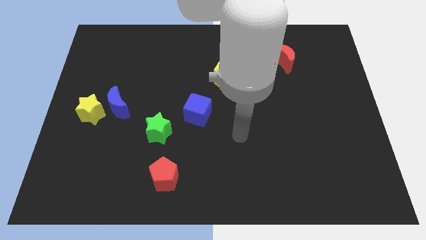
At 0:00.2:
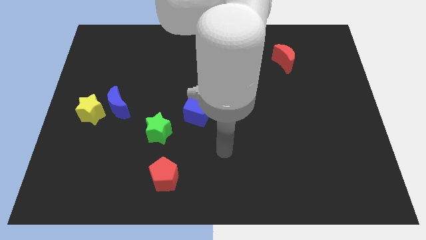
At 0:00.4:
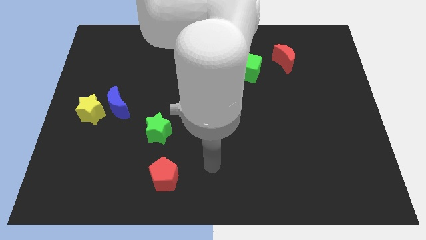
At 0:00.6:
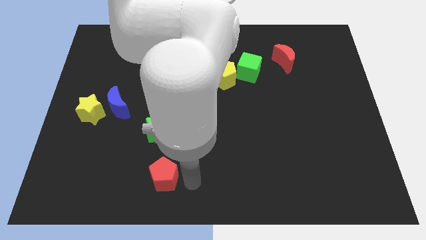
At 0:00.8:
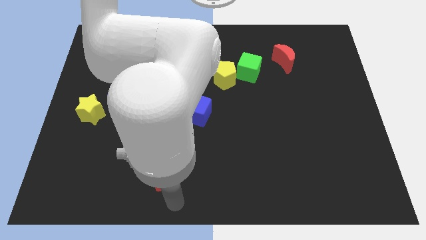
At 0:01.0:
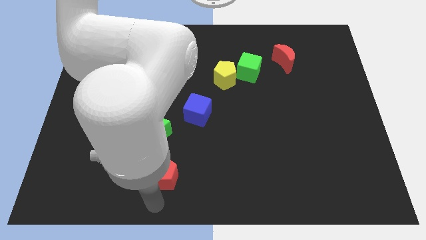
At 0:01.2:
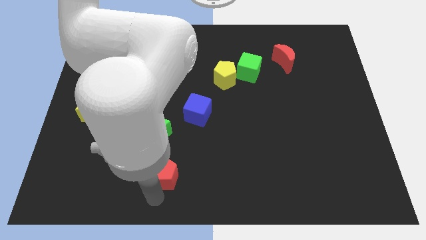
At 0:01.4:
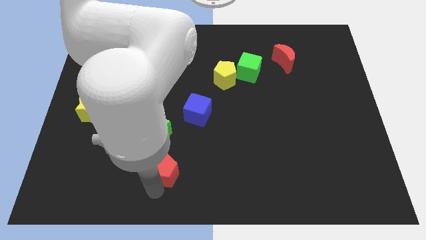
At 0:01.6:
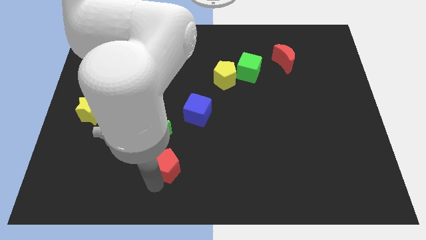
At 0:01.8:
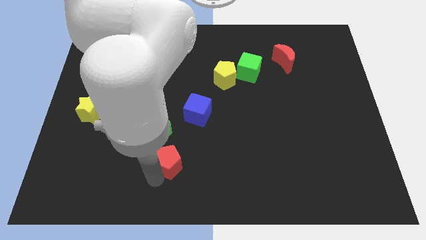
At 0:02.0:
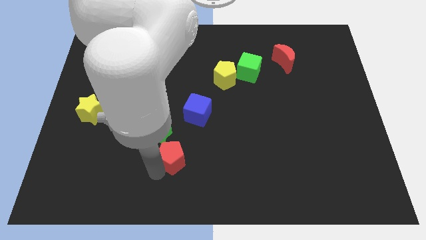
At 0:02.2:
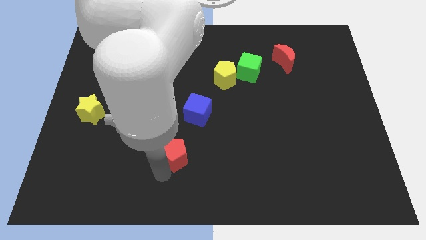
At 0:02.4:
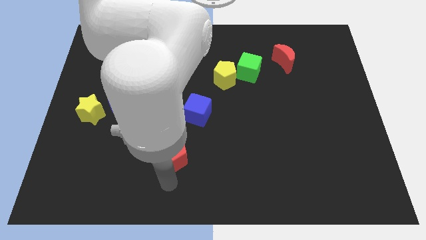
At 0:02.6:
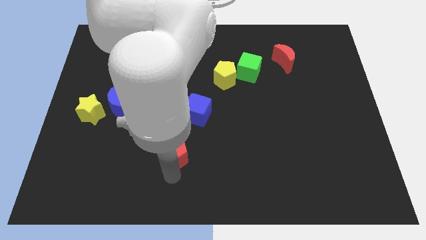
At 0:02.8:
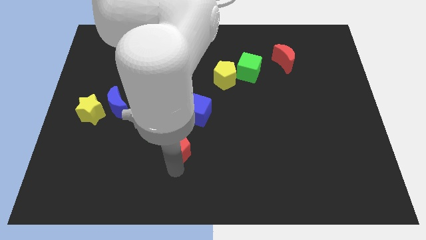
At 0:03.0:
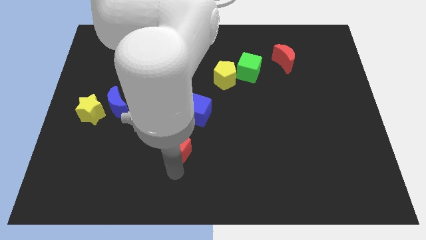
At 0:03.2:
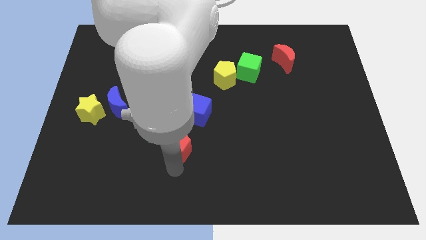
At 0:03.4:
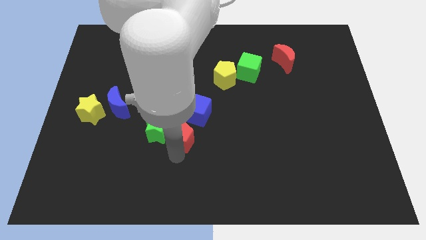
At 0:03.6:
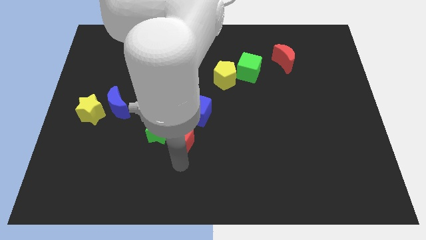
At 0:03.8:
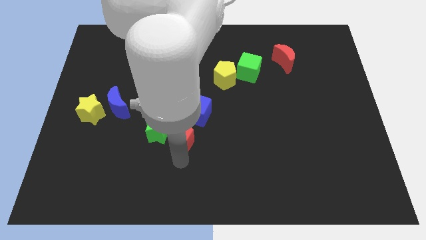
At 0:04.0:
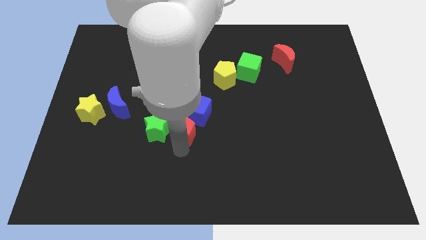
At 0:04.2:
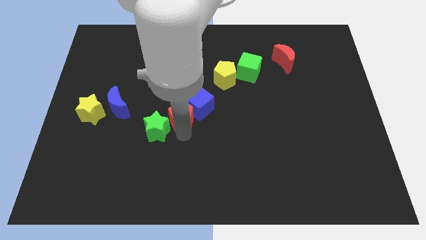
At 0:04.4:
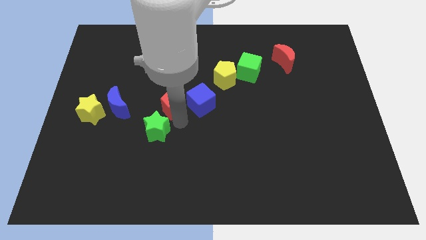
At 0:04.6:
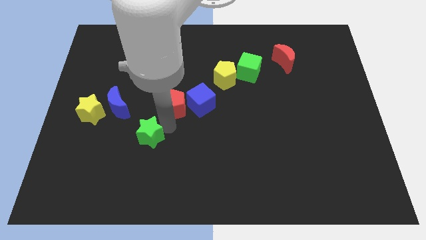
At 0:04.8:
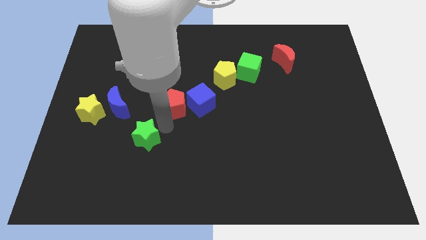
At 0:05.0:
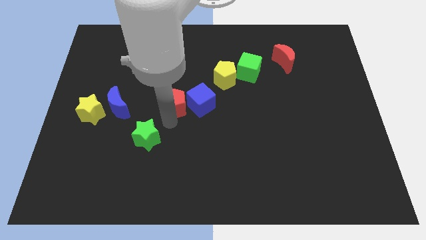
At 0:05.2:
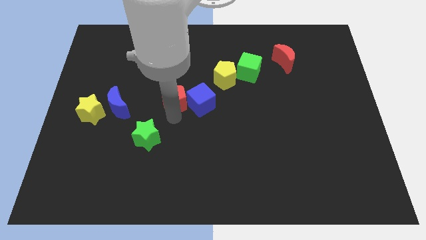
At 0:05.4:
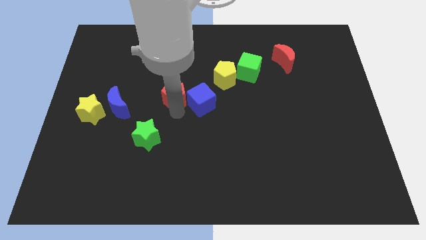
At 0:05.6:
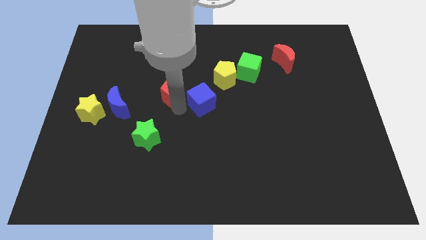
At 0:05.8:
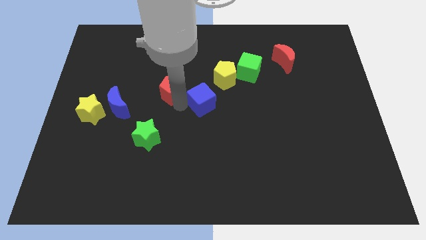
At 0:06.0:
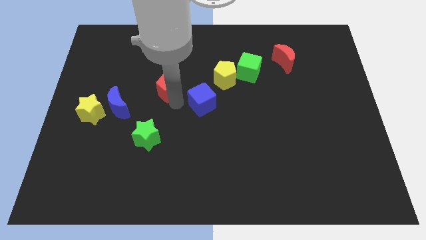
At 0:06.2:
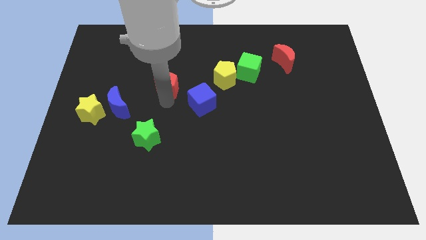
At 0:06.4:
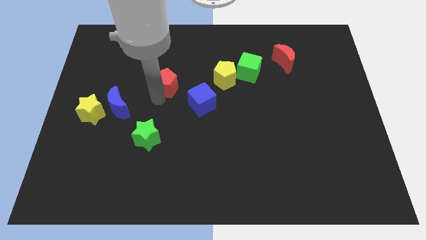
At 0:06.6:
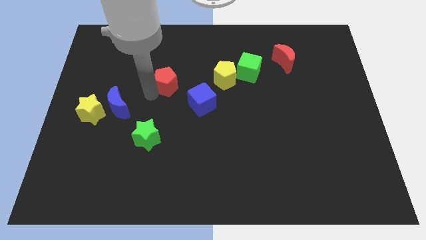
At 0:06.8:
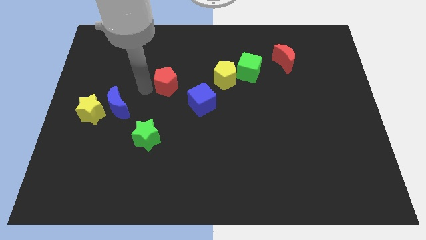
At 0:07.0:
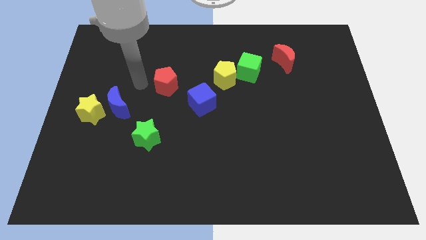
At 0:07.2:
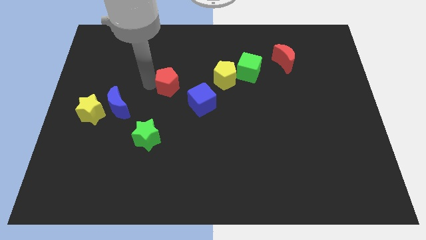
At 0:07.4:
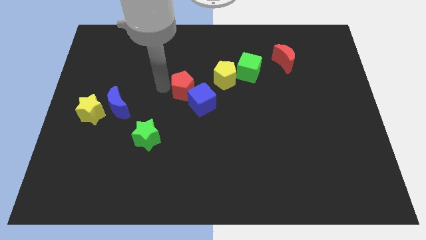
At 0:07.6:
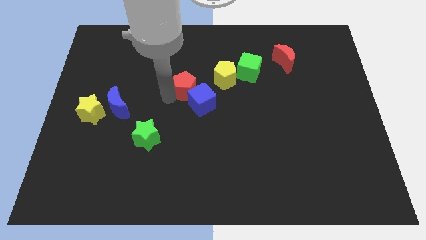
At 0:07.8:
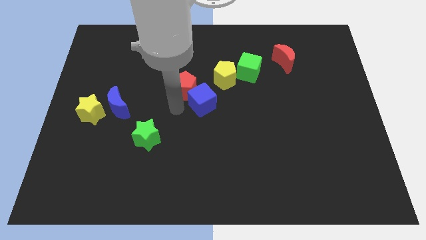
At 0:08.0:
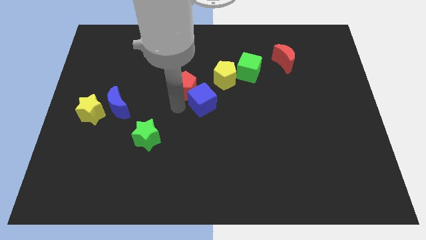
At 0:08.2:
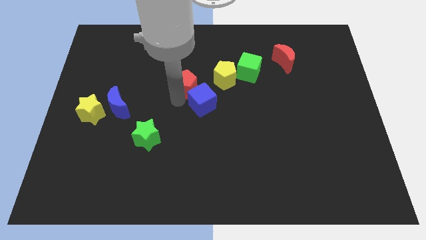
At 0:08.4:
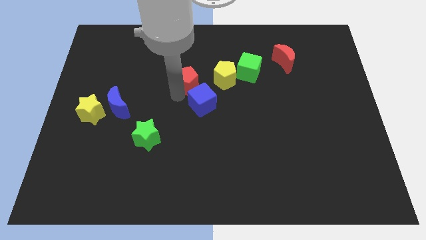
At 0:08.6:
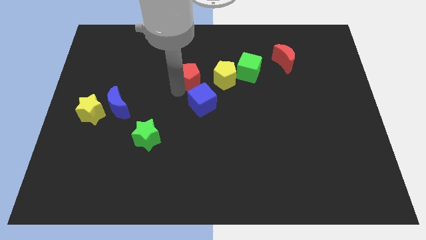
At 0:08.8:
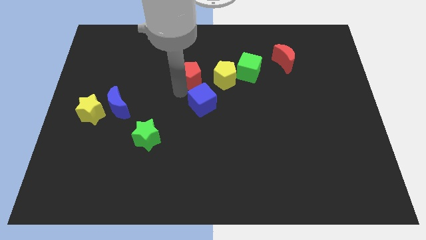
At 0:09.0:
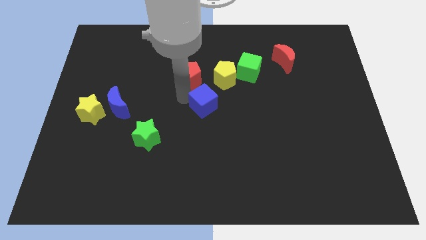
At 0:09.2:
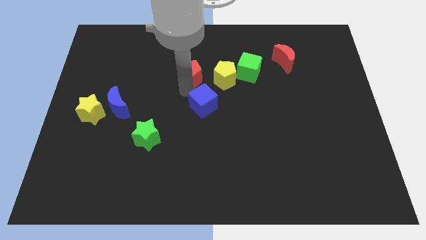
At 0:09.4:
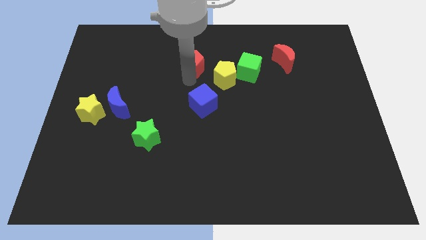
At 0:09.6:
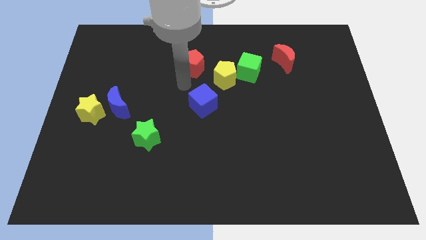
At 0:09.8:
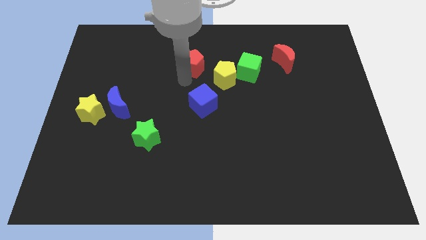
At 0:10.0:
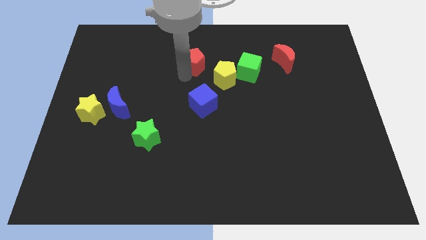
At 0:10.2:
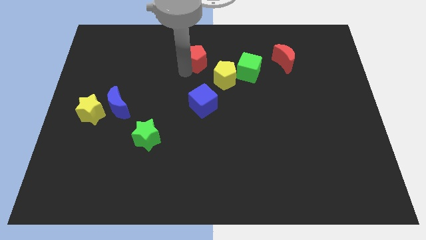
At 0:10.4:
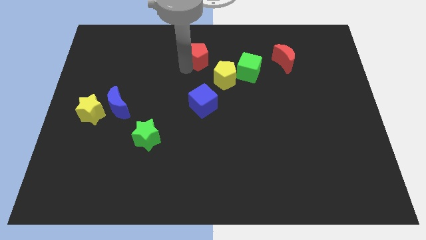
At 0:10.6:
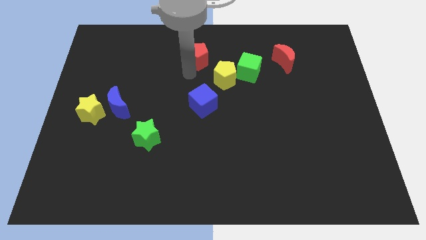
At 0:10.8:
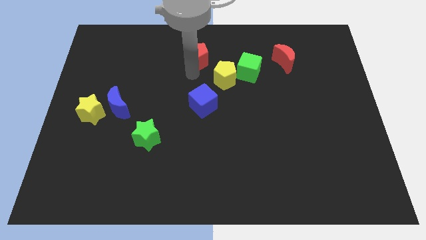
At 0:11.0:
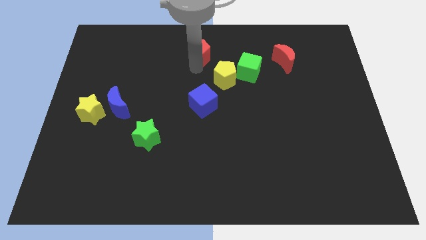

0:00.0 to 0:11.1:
push the red pentagon to the towards your base

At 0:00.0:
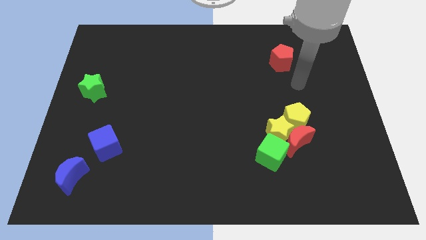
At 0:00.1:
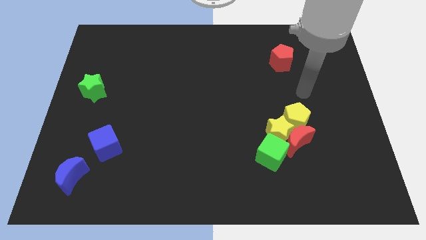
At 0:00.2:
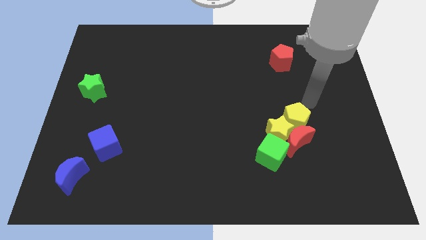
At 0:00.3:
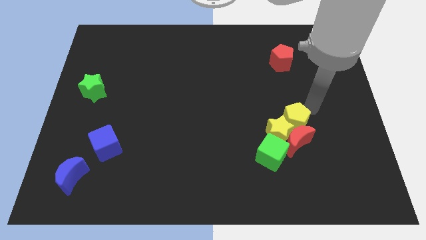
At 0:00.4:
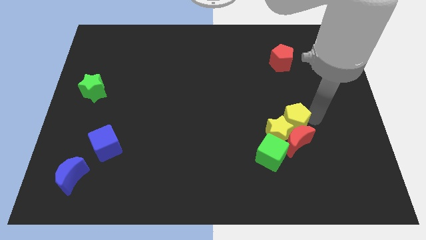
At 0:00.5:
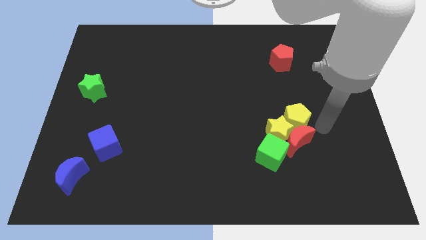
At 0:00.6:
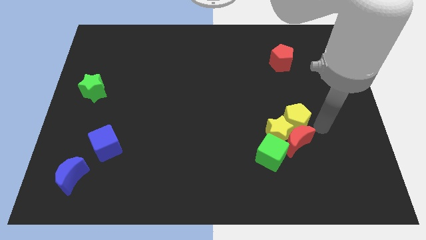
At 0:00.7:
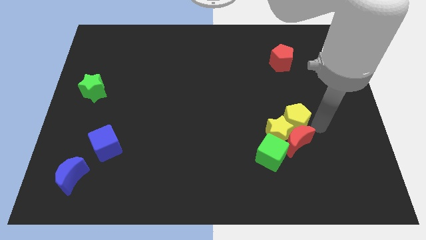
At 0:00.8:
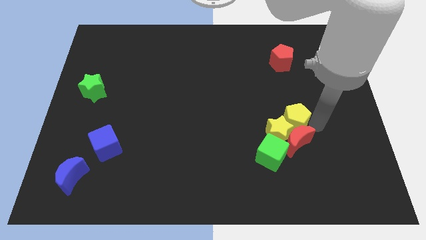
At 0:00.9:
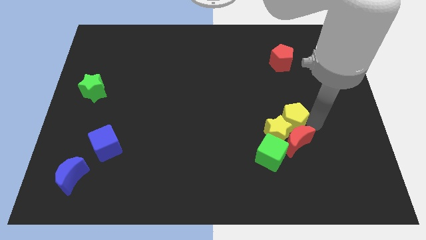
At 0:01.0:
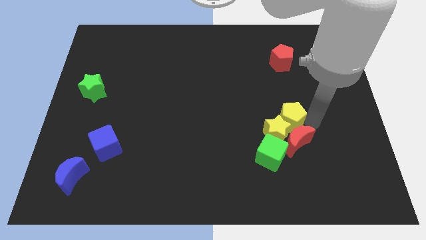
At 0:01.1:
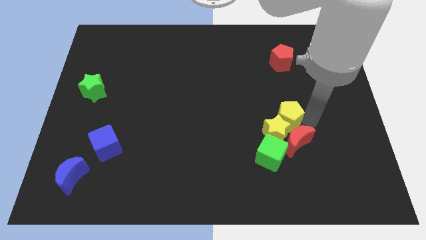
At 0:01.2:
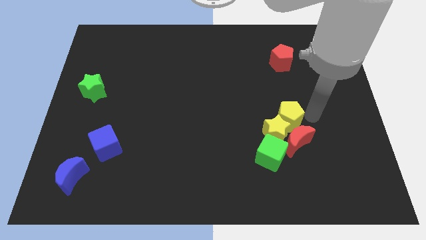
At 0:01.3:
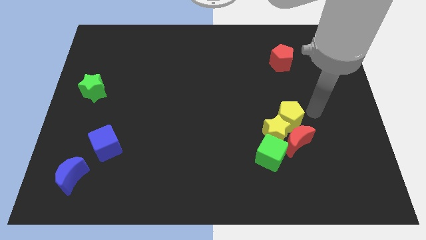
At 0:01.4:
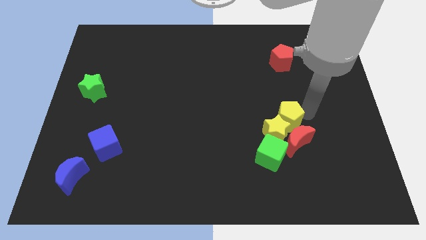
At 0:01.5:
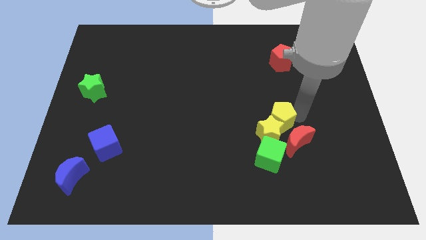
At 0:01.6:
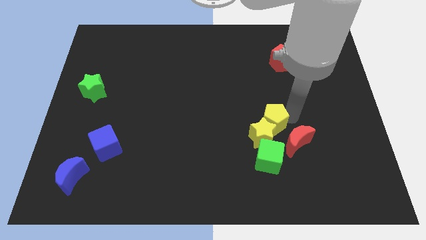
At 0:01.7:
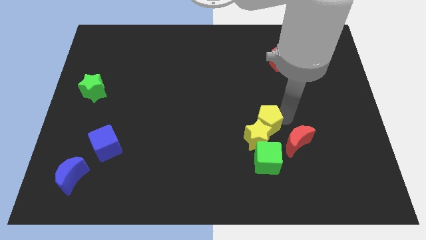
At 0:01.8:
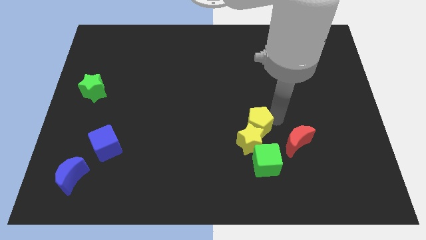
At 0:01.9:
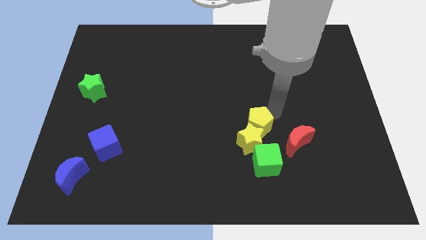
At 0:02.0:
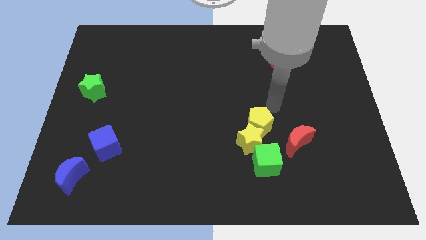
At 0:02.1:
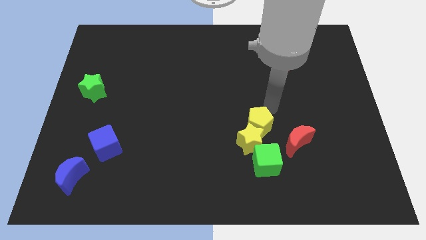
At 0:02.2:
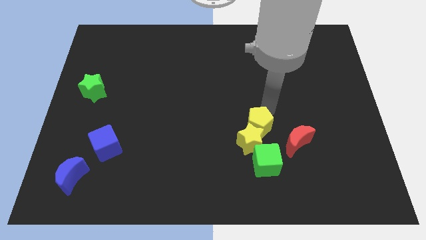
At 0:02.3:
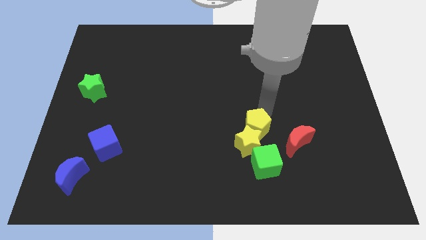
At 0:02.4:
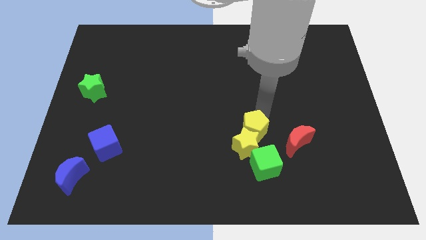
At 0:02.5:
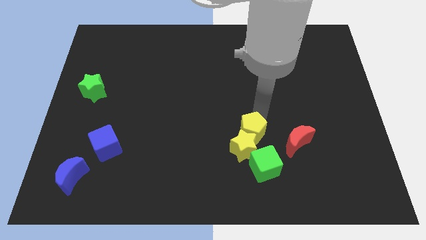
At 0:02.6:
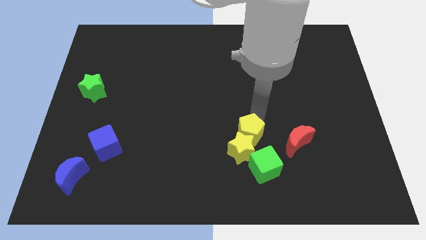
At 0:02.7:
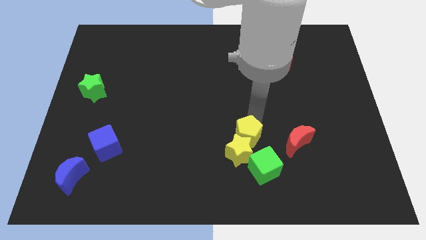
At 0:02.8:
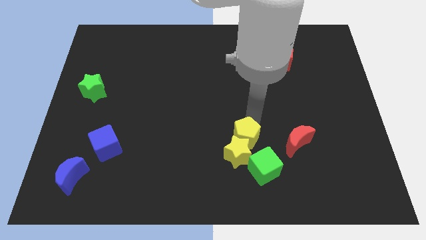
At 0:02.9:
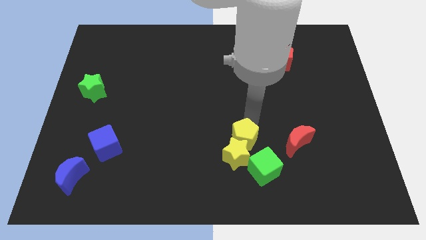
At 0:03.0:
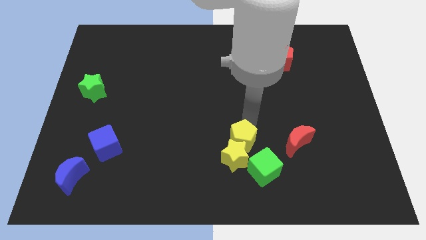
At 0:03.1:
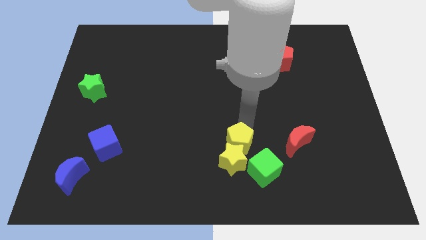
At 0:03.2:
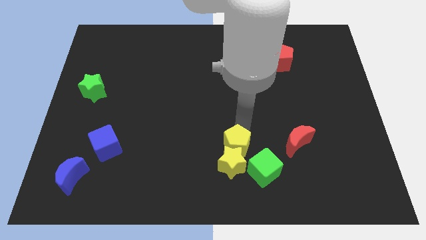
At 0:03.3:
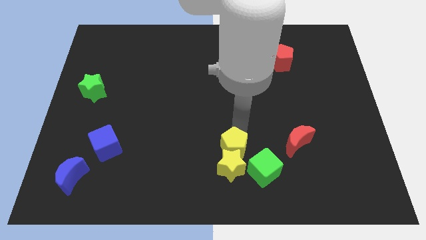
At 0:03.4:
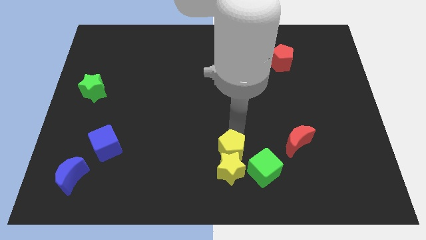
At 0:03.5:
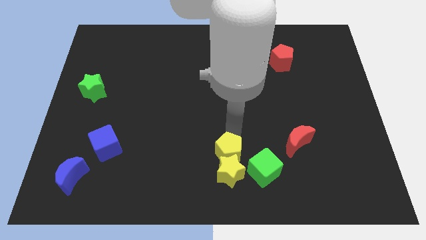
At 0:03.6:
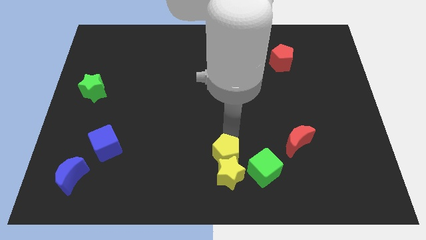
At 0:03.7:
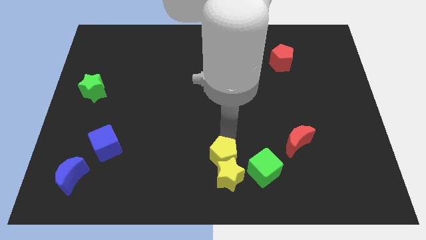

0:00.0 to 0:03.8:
move the yellow pentagon to the bottom side
